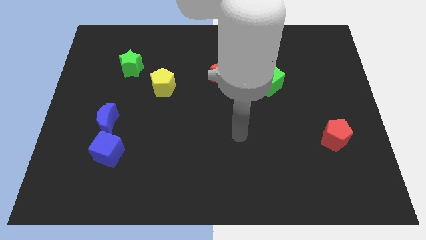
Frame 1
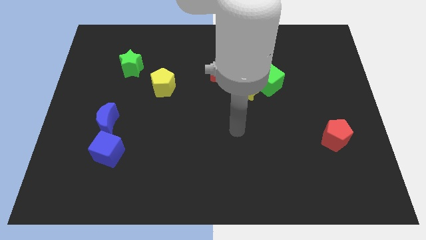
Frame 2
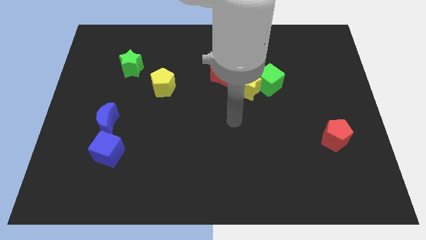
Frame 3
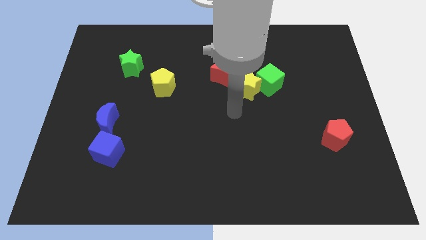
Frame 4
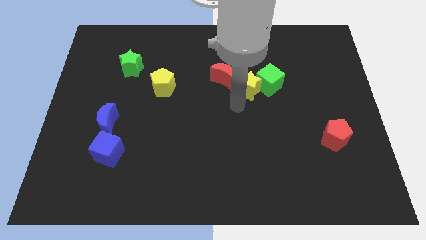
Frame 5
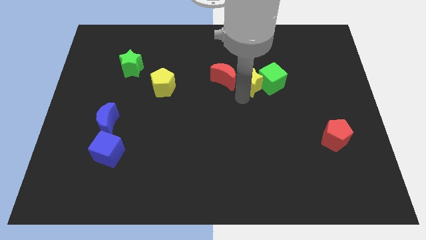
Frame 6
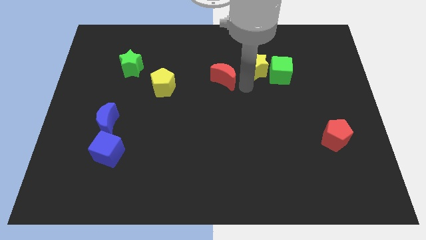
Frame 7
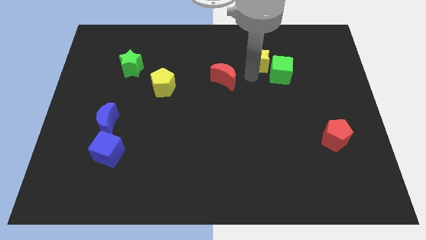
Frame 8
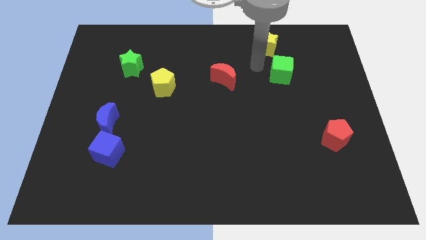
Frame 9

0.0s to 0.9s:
separate the green cube from the yellow star

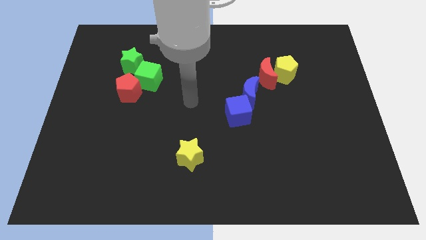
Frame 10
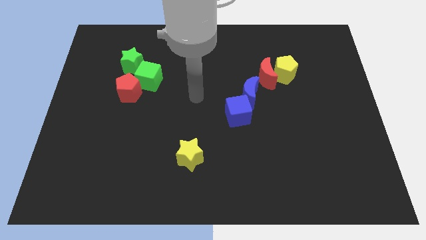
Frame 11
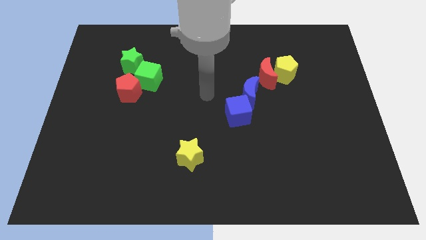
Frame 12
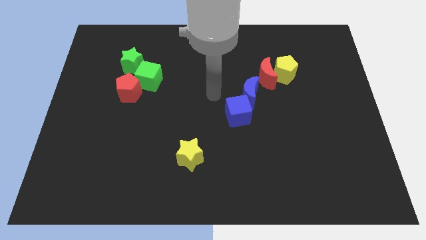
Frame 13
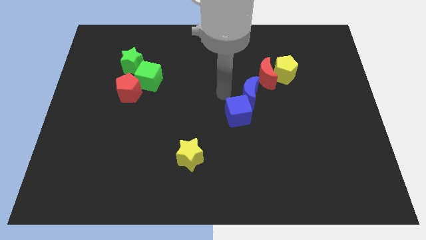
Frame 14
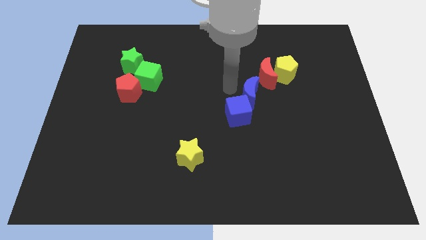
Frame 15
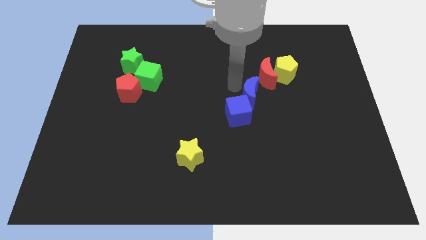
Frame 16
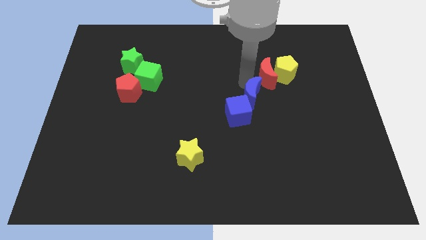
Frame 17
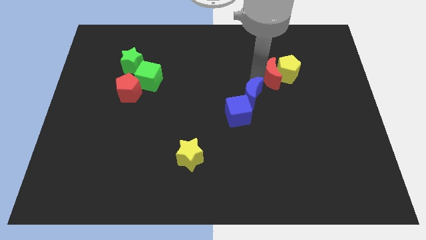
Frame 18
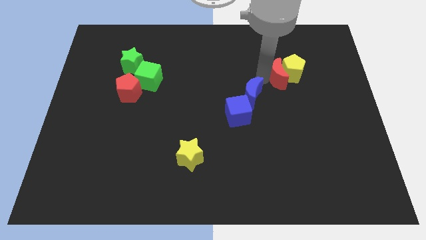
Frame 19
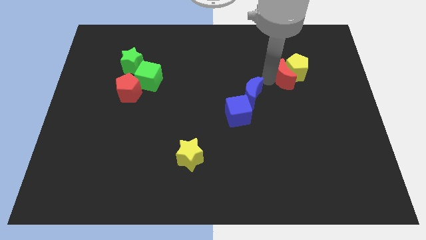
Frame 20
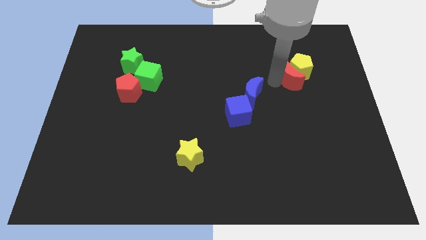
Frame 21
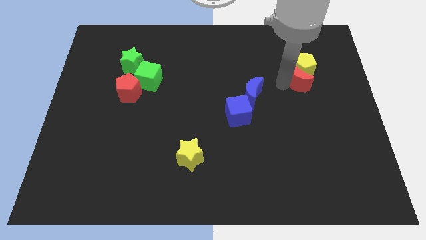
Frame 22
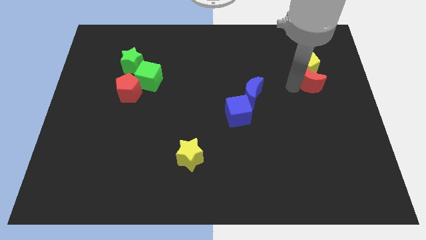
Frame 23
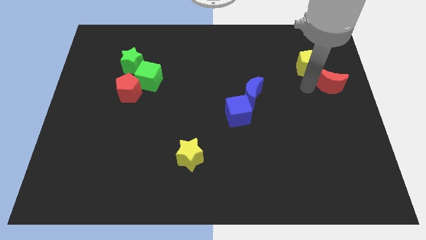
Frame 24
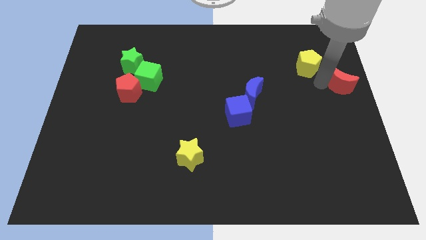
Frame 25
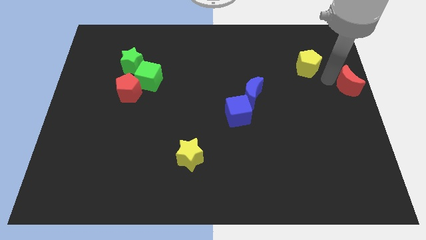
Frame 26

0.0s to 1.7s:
pull the yellow pentagon apart from the red moon

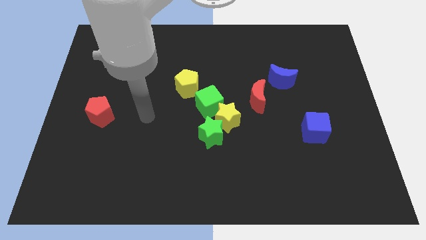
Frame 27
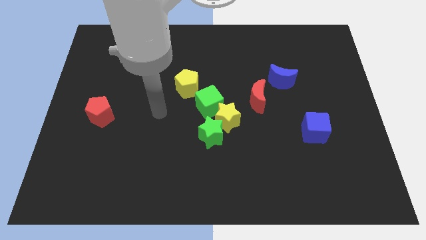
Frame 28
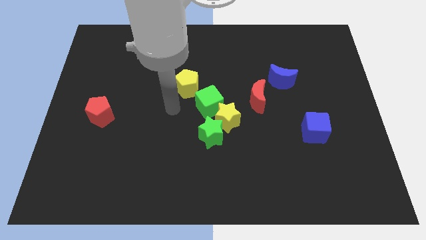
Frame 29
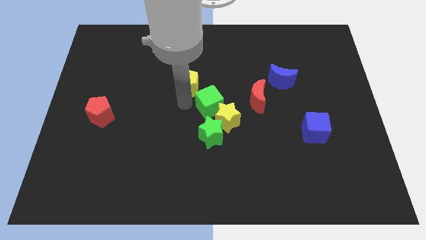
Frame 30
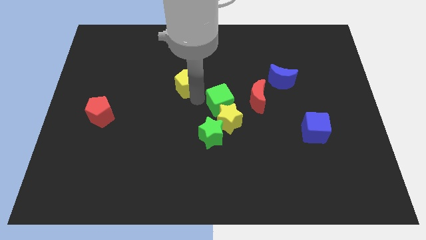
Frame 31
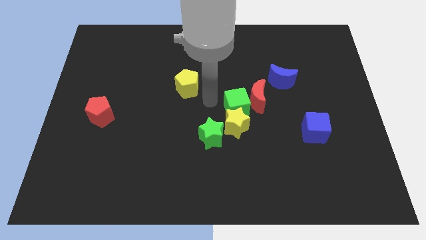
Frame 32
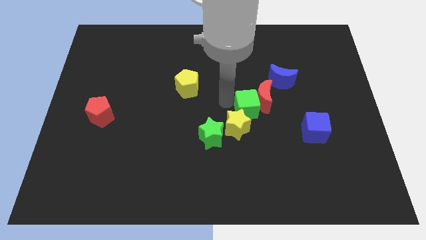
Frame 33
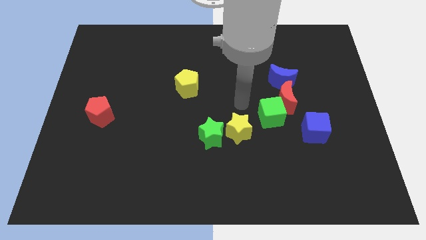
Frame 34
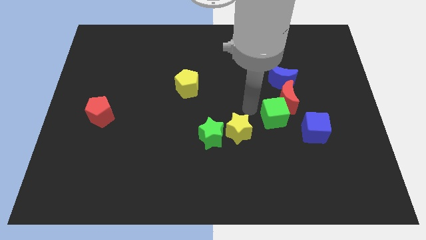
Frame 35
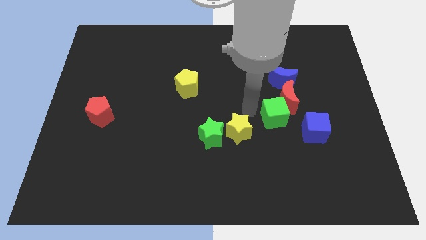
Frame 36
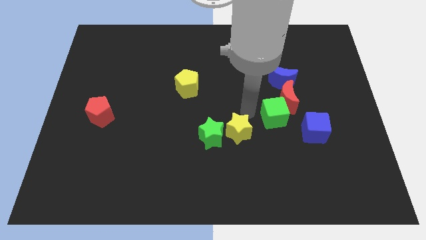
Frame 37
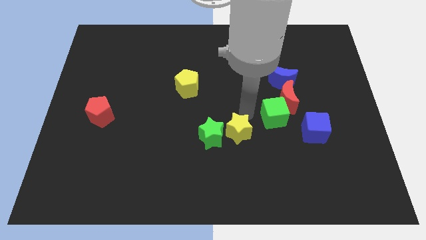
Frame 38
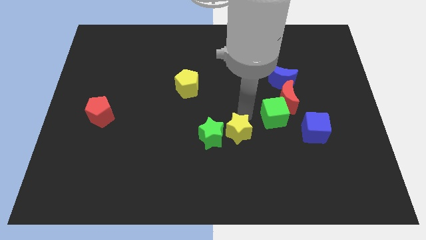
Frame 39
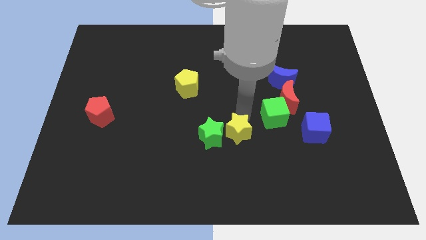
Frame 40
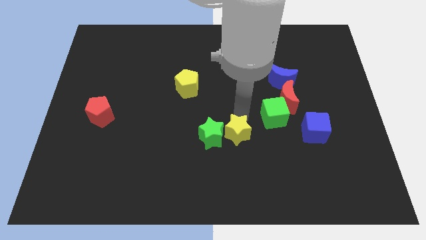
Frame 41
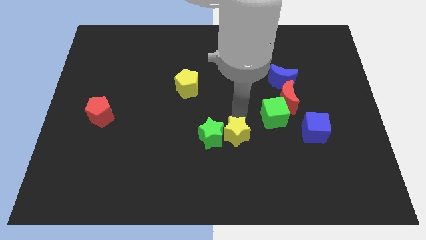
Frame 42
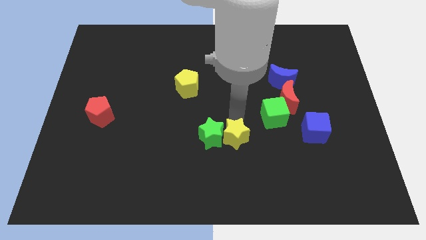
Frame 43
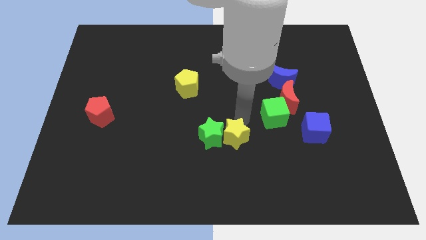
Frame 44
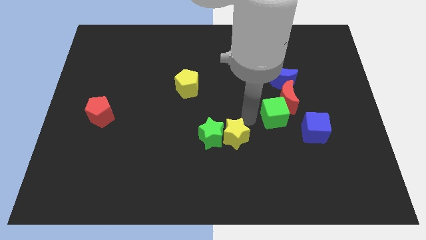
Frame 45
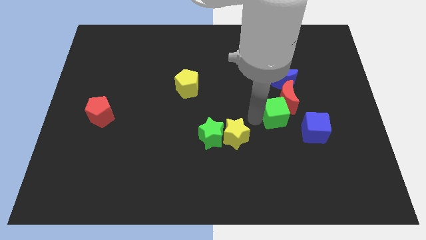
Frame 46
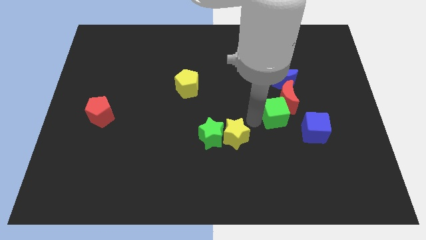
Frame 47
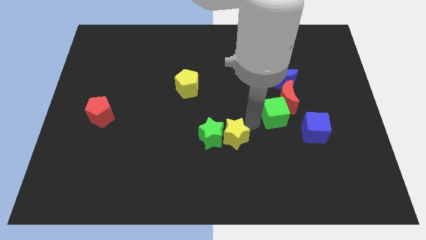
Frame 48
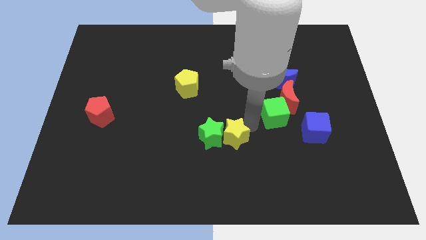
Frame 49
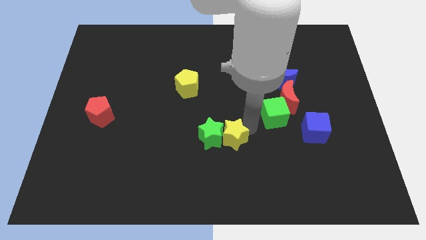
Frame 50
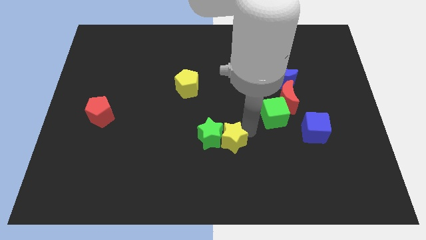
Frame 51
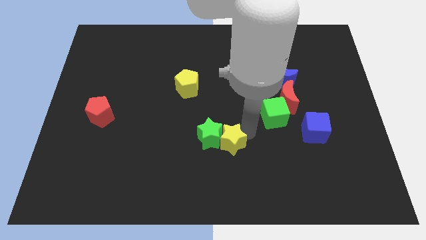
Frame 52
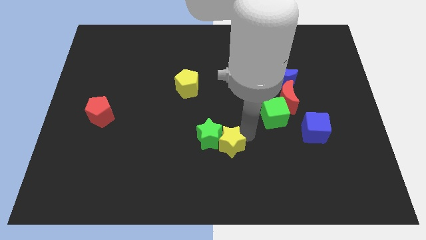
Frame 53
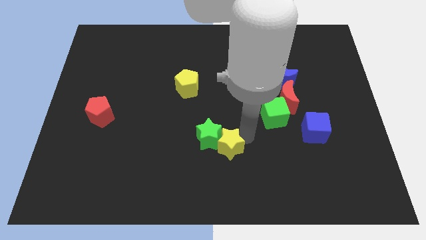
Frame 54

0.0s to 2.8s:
pull the yellow star apart from the group of blocks

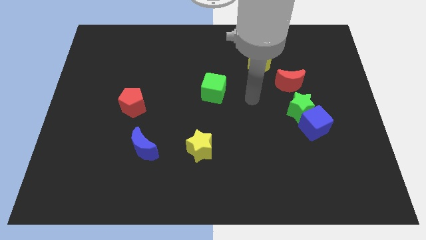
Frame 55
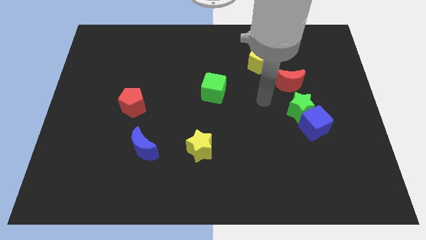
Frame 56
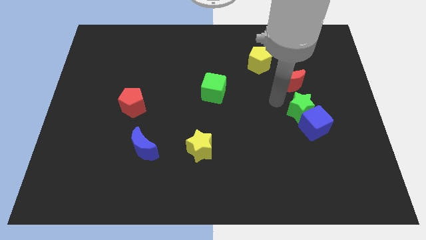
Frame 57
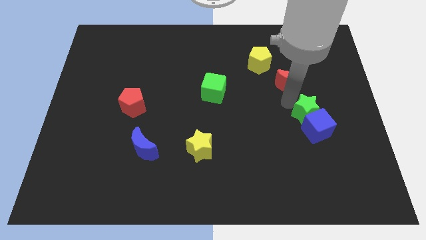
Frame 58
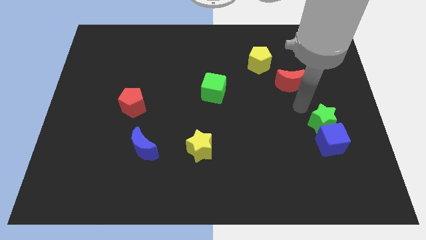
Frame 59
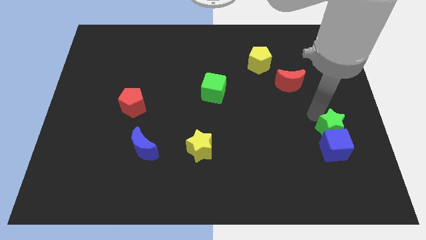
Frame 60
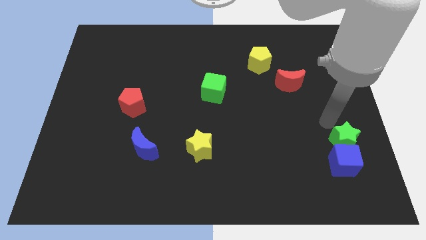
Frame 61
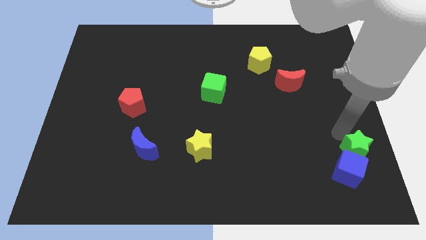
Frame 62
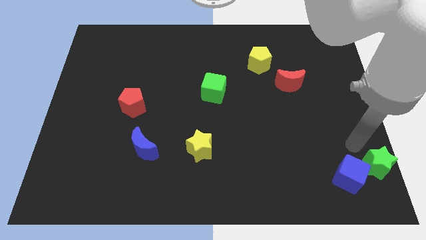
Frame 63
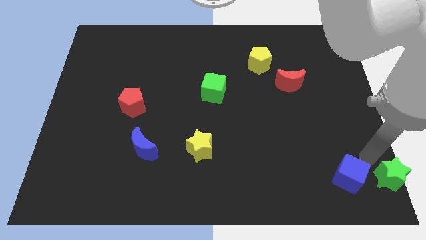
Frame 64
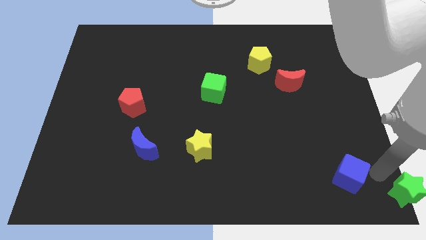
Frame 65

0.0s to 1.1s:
separate the blue cube from the green star

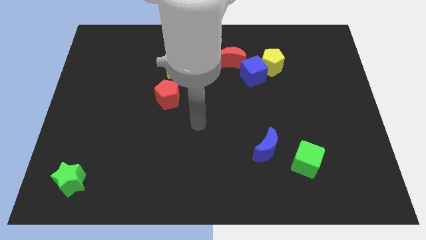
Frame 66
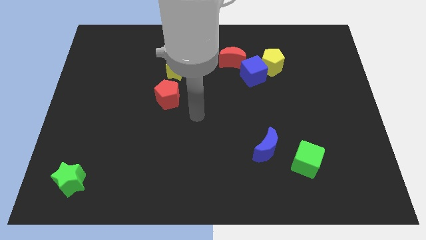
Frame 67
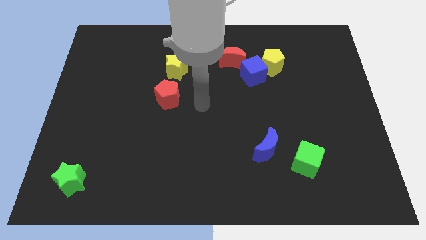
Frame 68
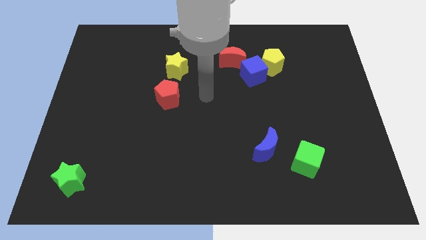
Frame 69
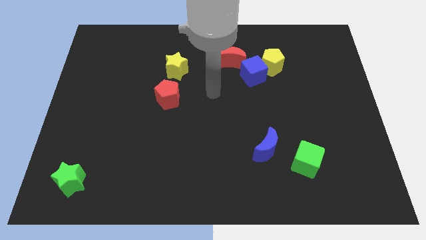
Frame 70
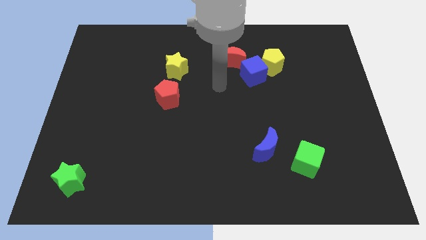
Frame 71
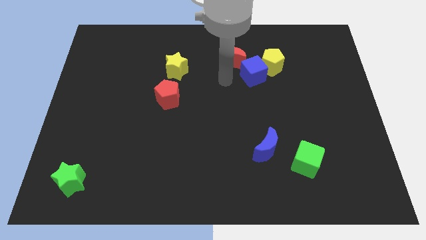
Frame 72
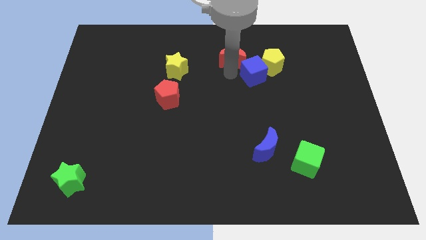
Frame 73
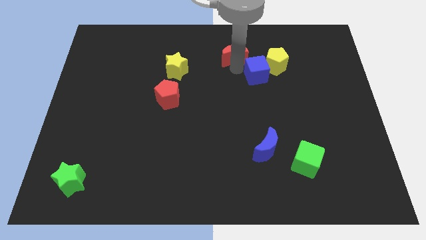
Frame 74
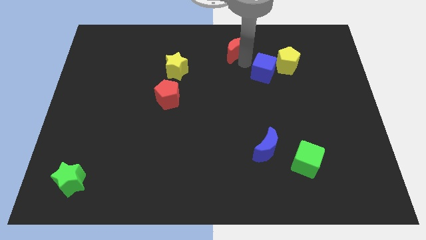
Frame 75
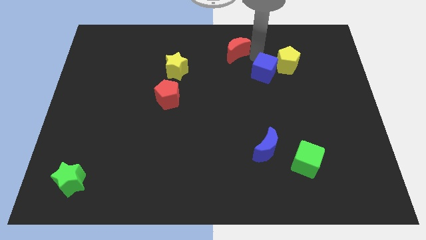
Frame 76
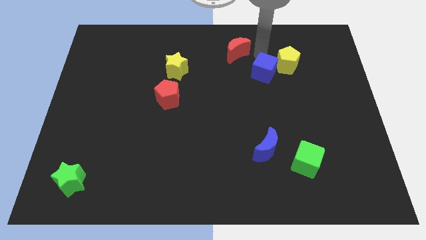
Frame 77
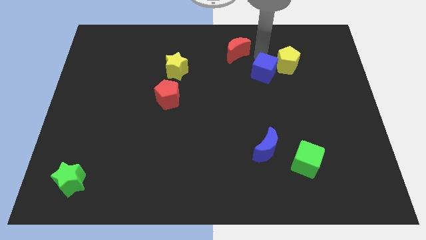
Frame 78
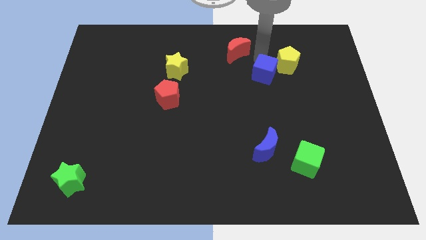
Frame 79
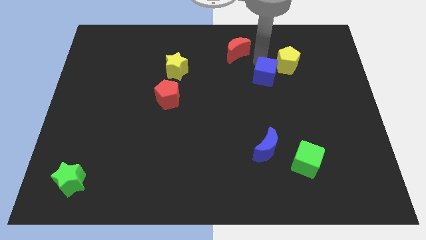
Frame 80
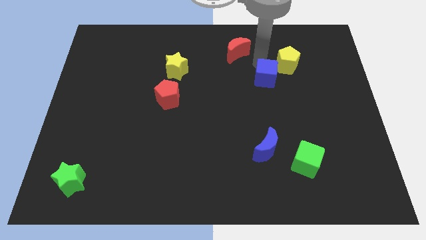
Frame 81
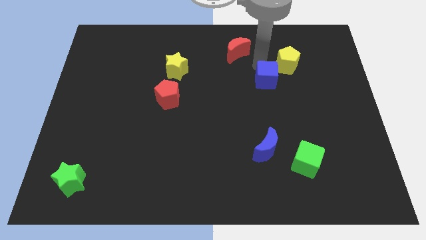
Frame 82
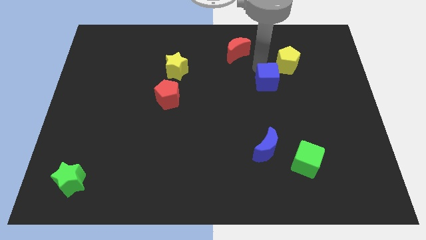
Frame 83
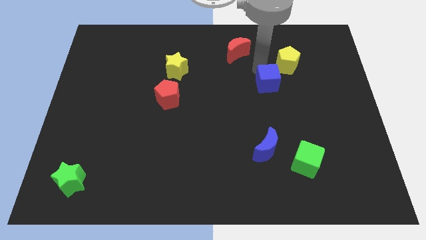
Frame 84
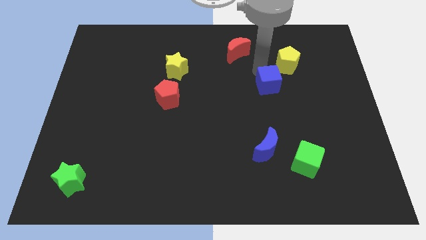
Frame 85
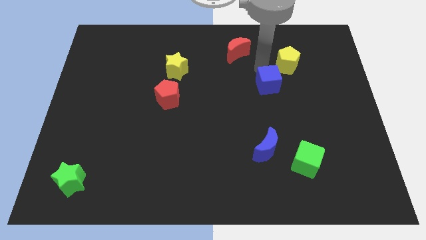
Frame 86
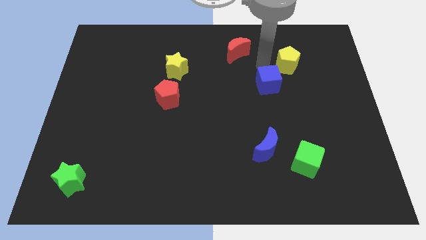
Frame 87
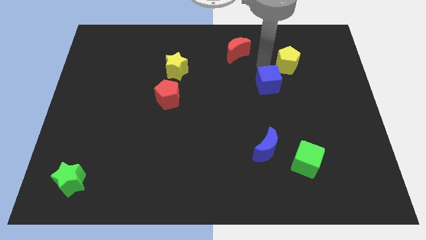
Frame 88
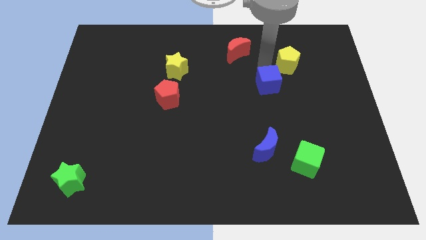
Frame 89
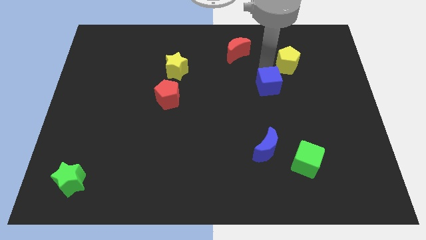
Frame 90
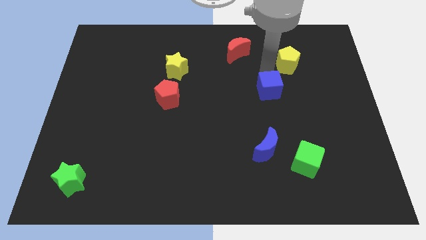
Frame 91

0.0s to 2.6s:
move the blue cube away from the yellow pentagon and red moon

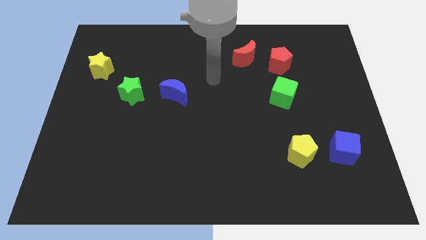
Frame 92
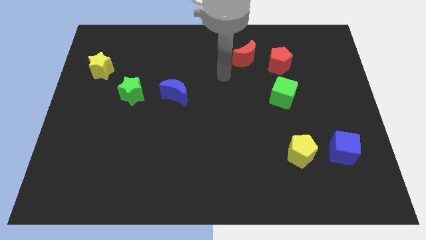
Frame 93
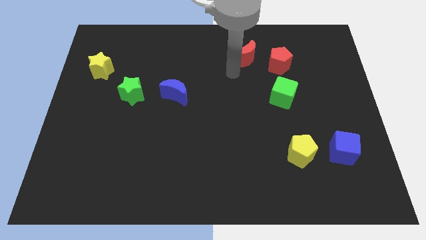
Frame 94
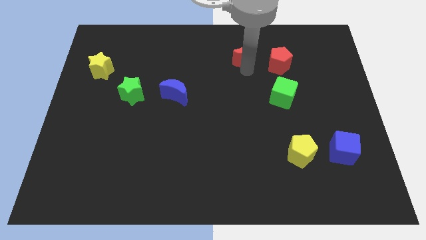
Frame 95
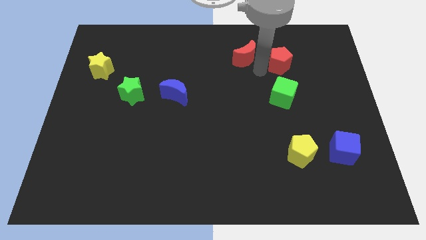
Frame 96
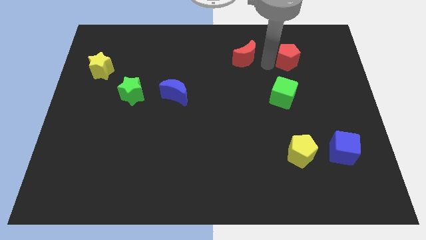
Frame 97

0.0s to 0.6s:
separate the red moon from the red pentagon
